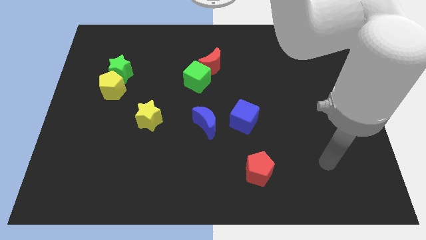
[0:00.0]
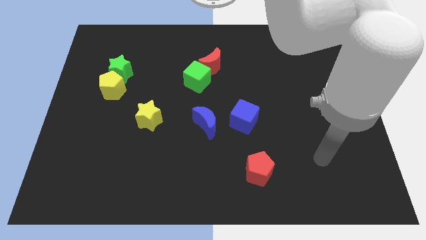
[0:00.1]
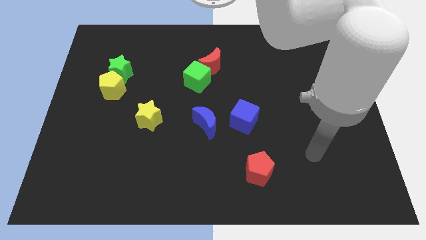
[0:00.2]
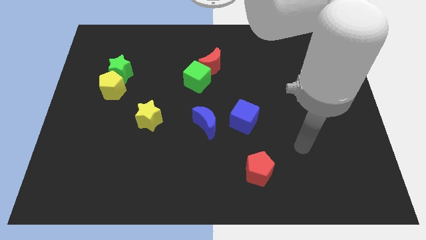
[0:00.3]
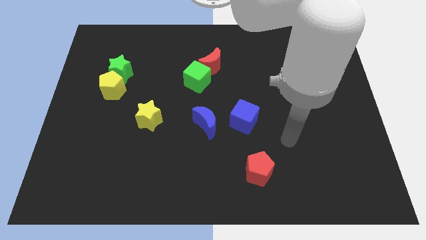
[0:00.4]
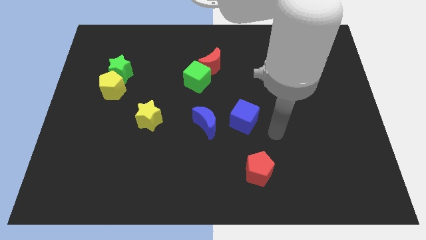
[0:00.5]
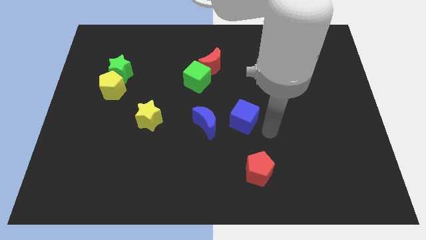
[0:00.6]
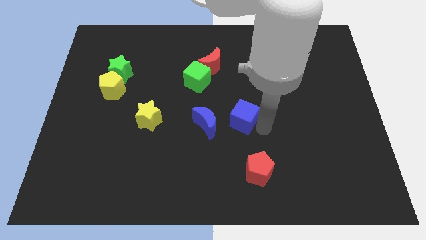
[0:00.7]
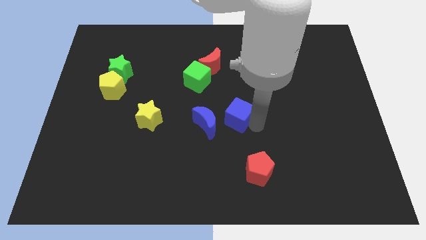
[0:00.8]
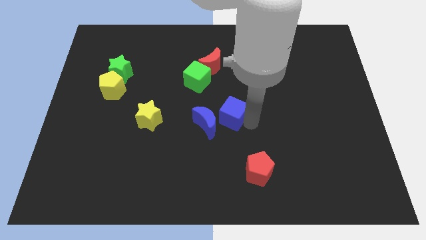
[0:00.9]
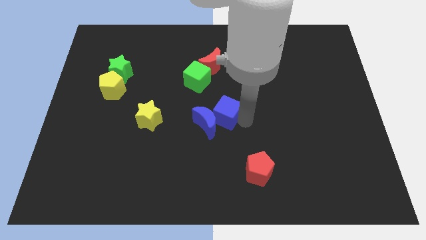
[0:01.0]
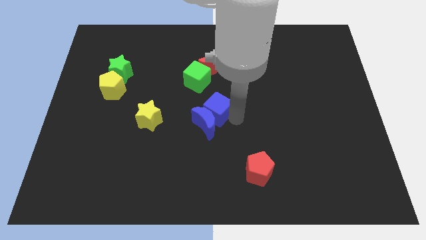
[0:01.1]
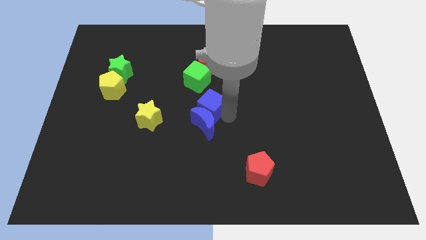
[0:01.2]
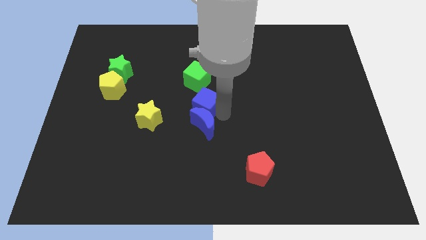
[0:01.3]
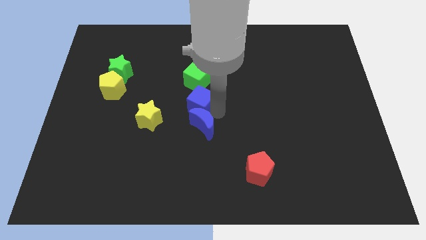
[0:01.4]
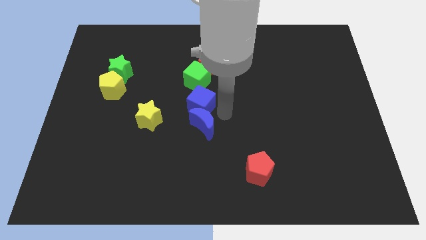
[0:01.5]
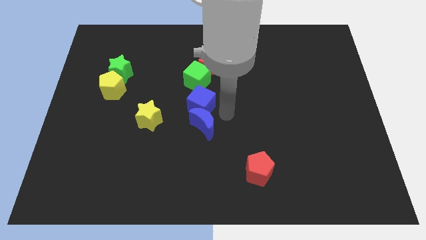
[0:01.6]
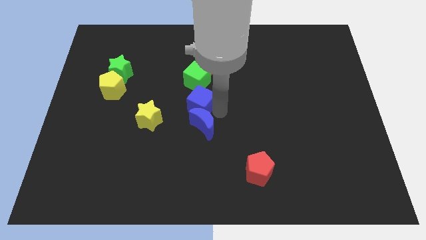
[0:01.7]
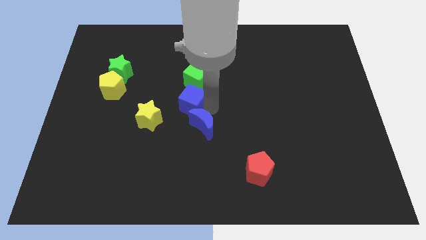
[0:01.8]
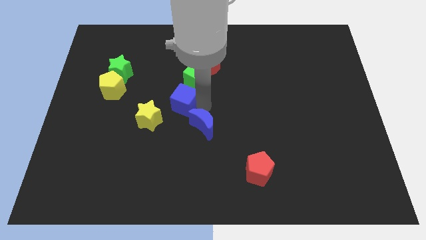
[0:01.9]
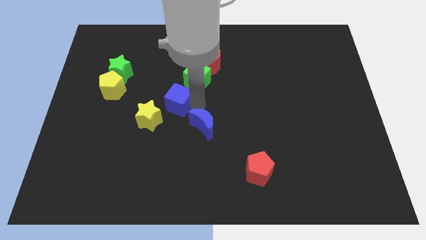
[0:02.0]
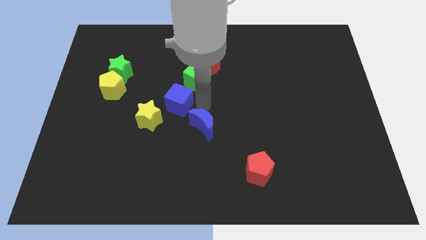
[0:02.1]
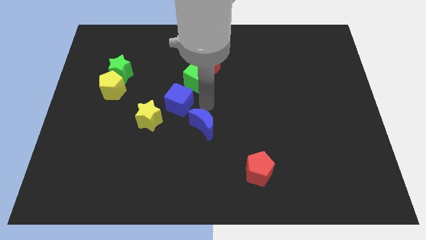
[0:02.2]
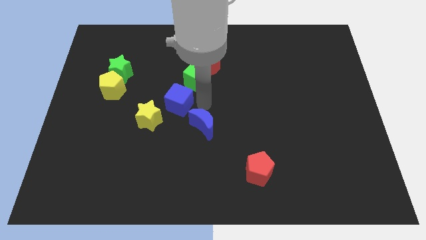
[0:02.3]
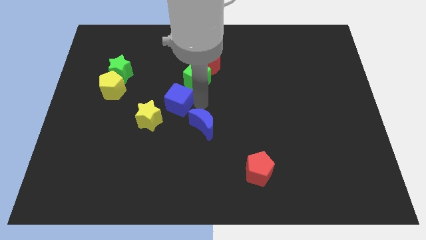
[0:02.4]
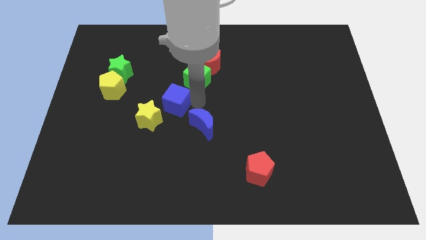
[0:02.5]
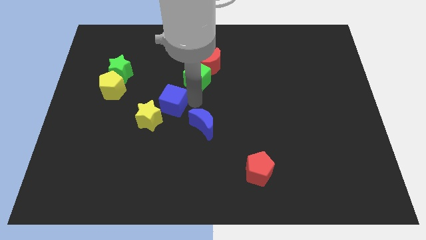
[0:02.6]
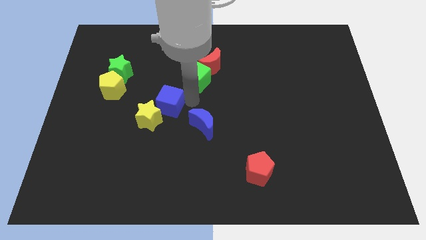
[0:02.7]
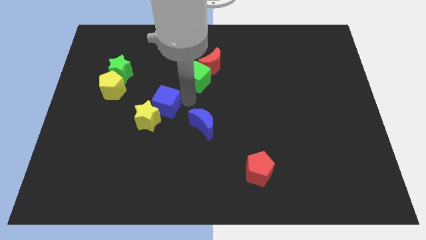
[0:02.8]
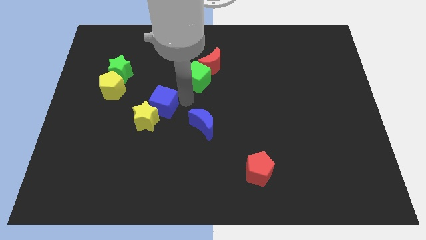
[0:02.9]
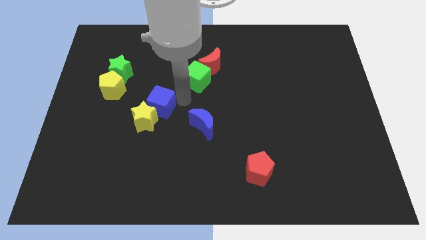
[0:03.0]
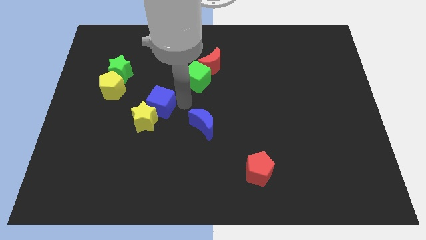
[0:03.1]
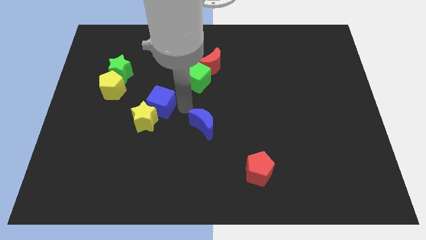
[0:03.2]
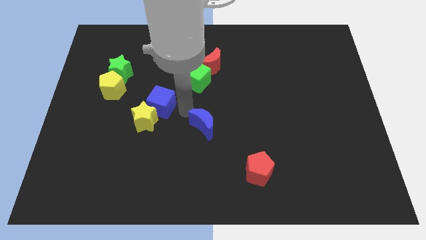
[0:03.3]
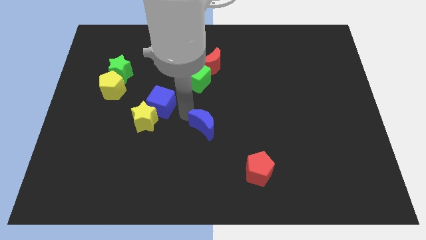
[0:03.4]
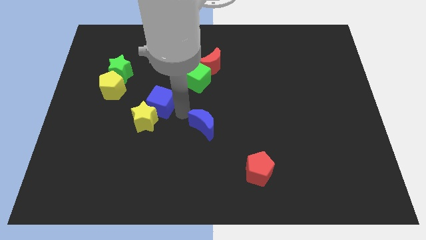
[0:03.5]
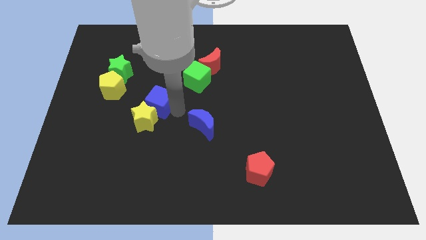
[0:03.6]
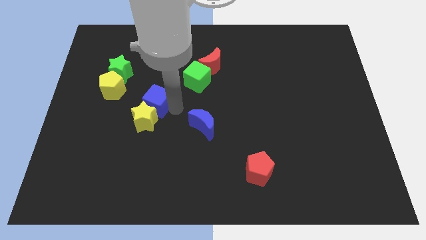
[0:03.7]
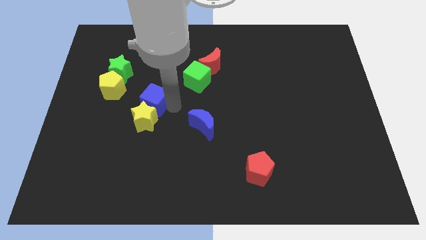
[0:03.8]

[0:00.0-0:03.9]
slide the blue cube to the left

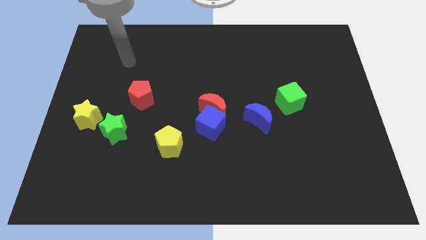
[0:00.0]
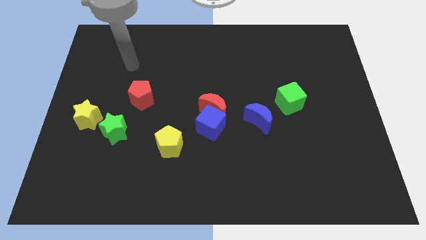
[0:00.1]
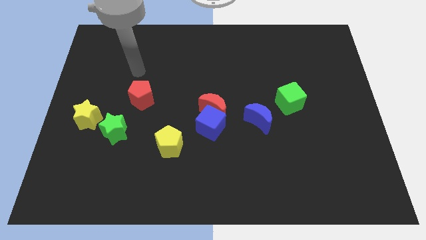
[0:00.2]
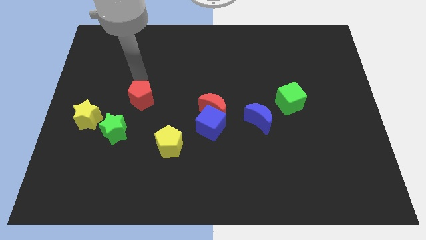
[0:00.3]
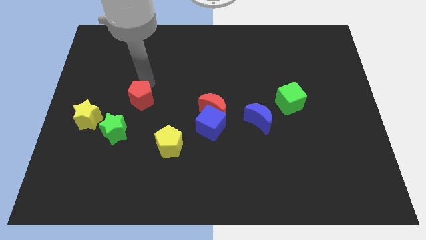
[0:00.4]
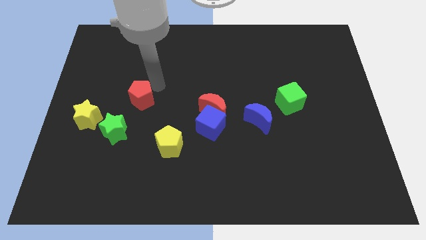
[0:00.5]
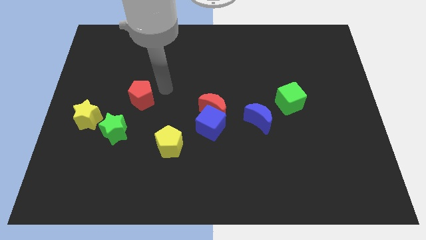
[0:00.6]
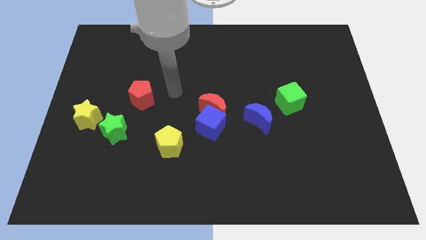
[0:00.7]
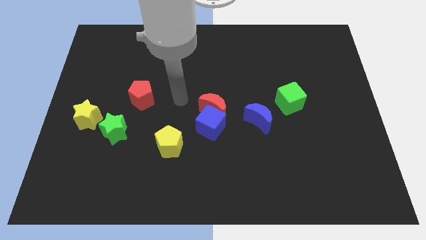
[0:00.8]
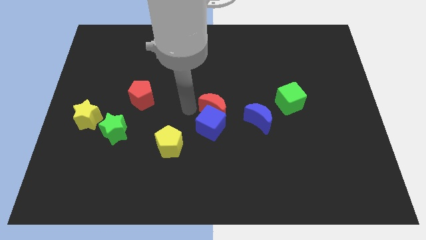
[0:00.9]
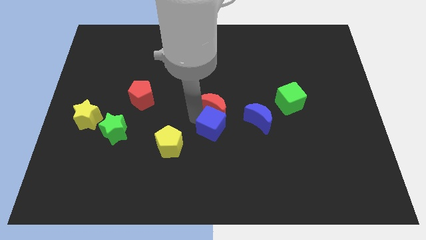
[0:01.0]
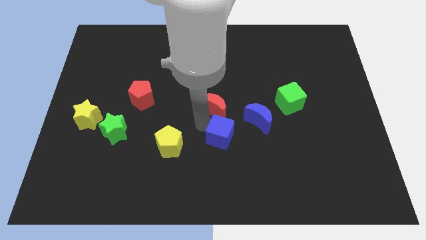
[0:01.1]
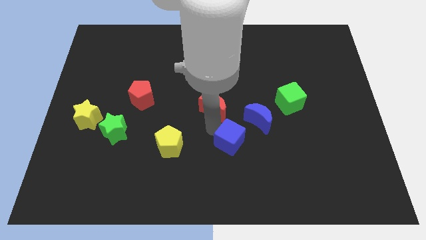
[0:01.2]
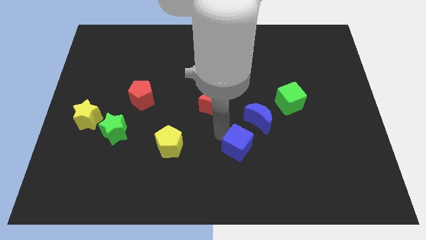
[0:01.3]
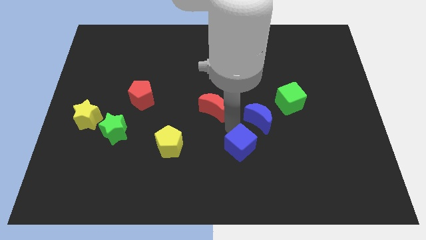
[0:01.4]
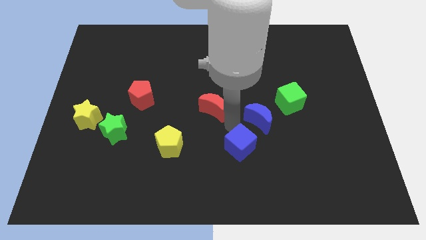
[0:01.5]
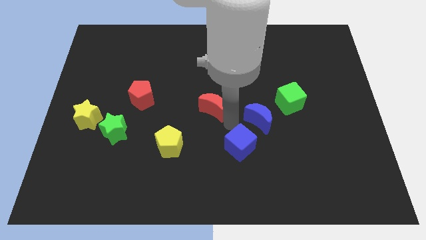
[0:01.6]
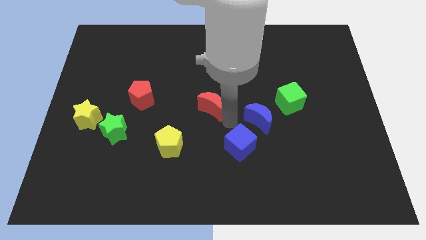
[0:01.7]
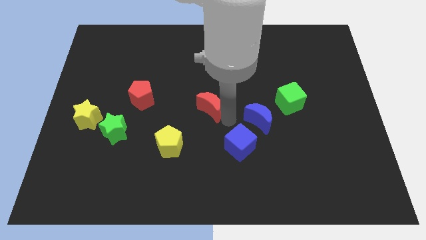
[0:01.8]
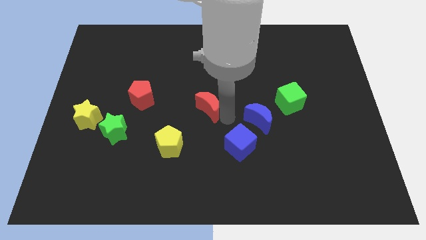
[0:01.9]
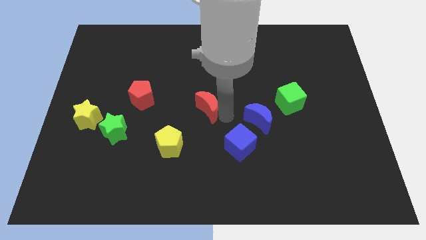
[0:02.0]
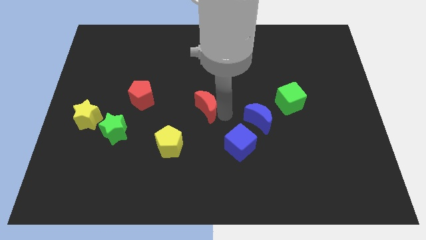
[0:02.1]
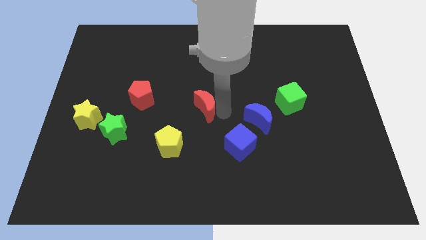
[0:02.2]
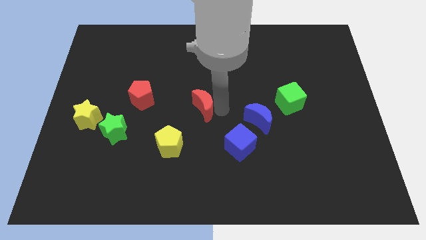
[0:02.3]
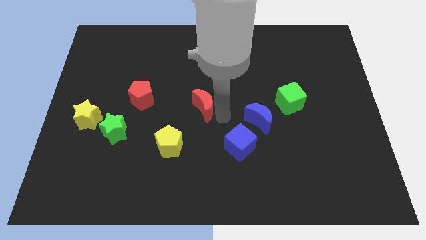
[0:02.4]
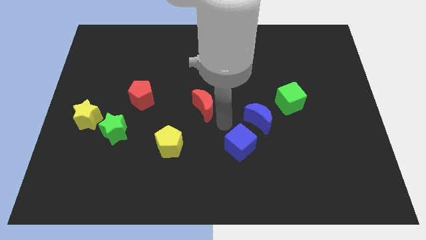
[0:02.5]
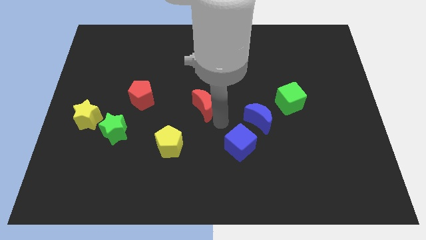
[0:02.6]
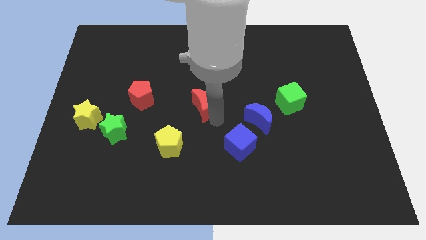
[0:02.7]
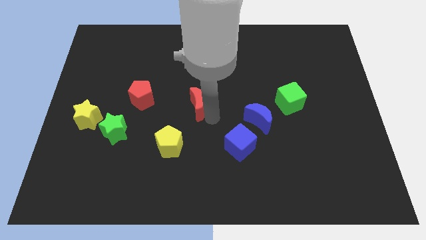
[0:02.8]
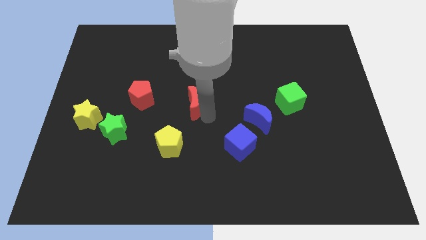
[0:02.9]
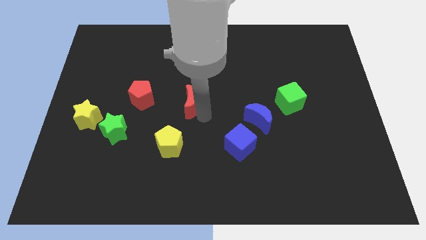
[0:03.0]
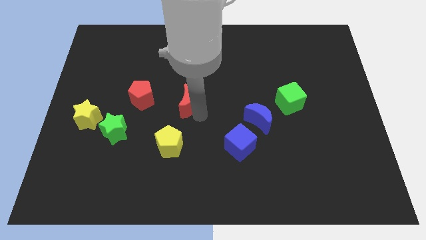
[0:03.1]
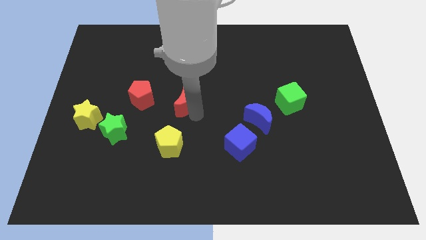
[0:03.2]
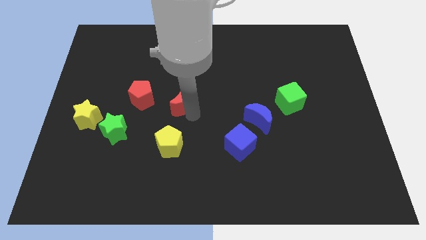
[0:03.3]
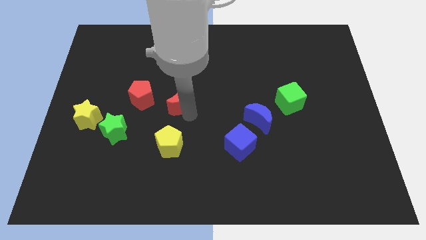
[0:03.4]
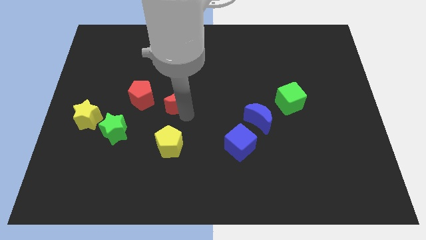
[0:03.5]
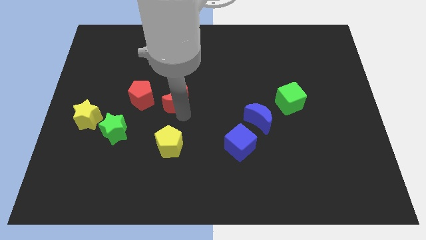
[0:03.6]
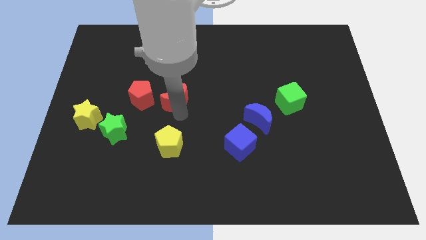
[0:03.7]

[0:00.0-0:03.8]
move the red moon a little bit diagonally up and to the left

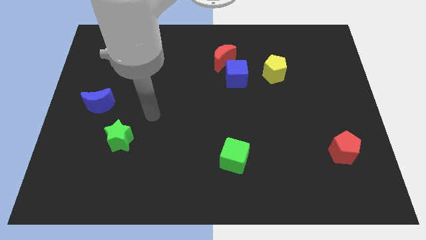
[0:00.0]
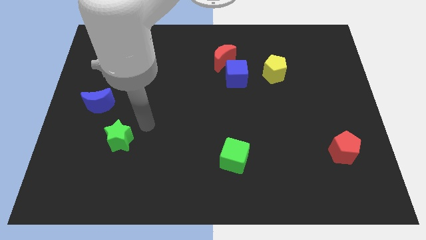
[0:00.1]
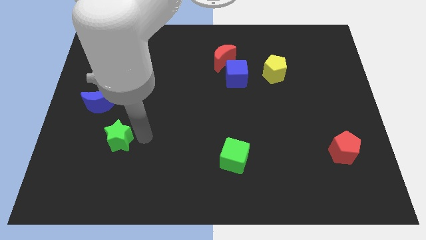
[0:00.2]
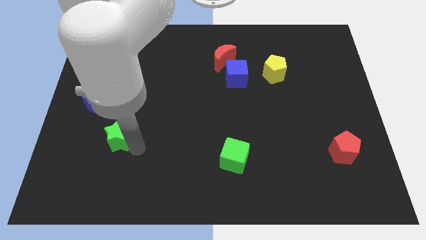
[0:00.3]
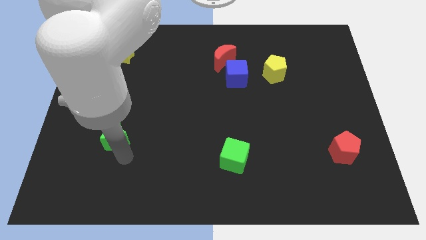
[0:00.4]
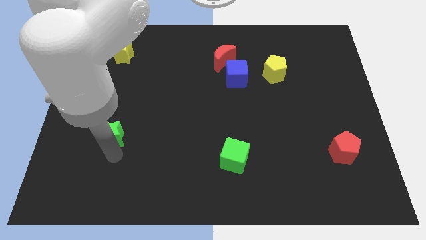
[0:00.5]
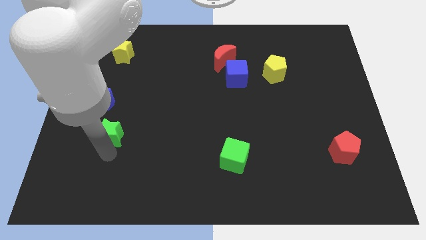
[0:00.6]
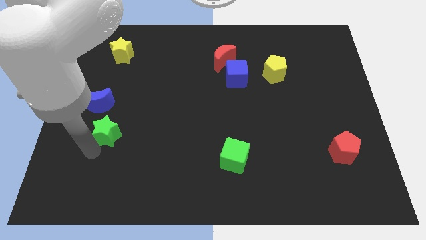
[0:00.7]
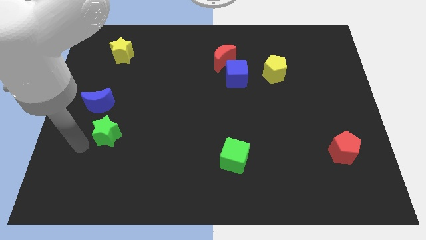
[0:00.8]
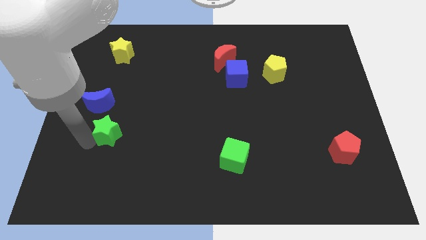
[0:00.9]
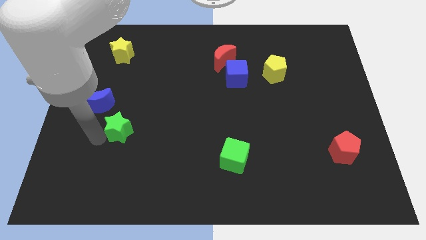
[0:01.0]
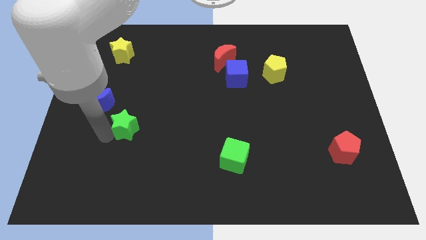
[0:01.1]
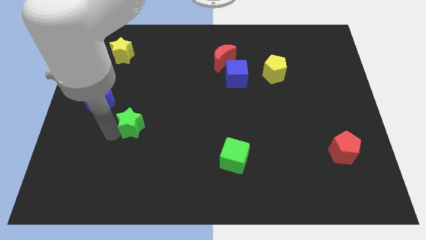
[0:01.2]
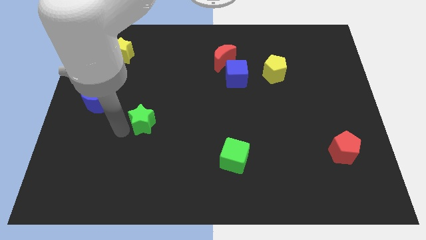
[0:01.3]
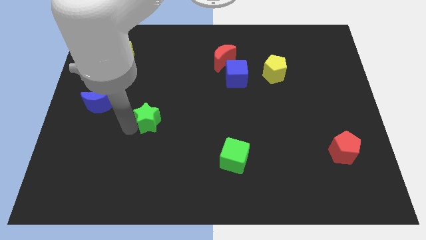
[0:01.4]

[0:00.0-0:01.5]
slightly push the green star diagonally up and right
